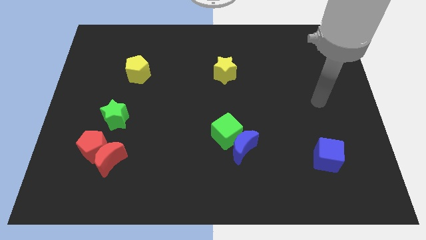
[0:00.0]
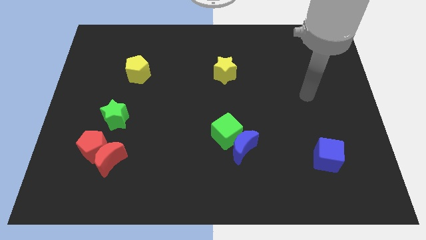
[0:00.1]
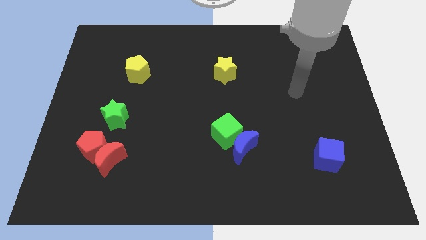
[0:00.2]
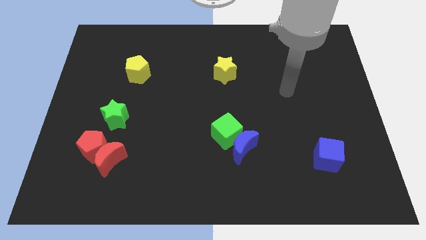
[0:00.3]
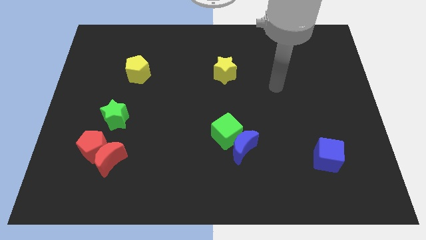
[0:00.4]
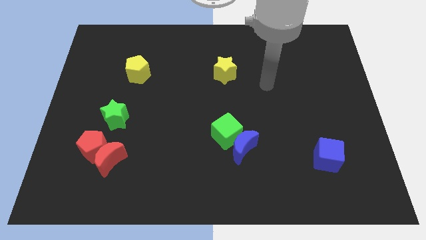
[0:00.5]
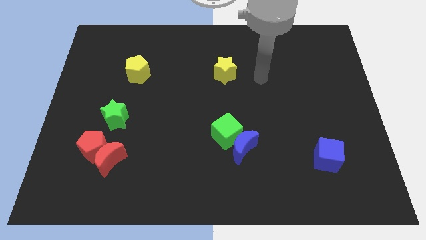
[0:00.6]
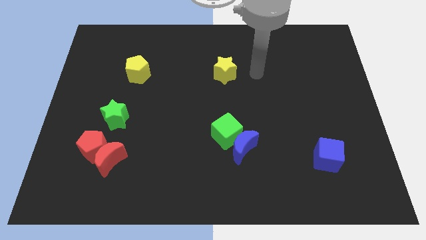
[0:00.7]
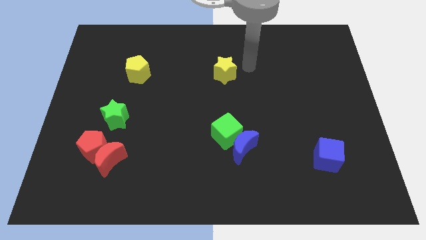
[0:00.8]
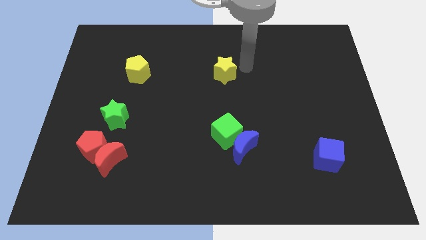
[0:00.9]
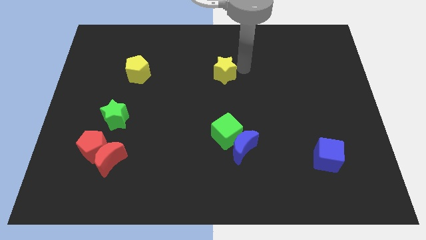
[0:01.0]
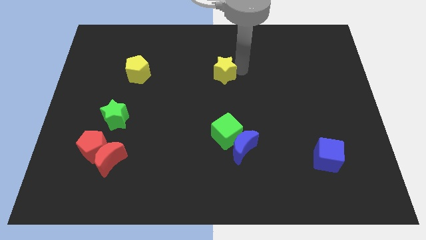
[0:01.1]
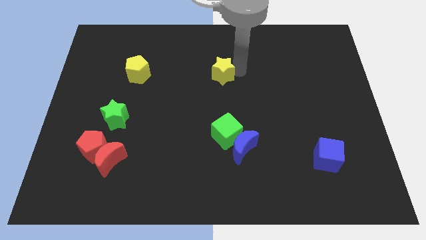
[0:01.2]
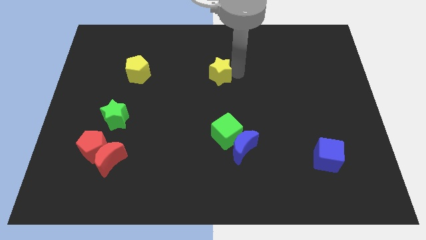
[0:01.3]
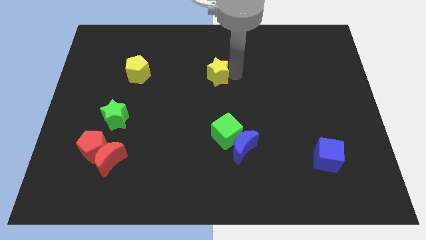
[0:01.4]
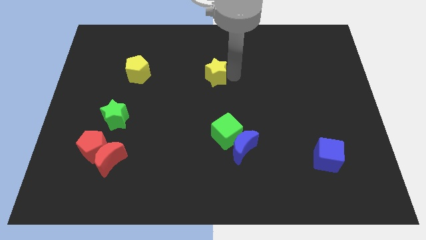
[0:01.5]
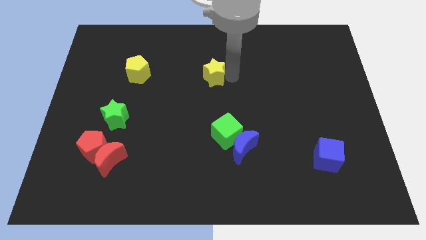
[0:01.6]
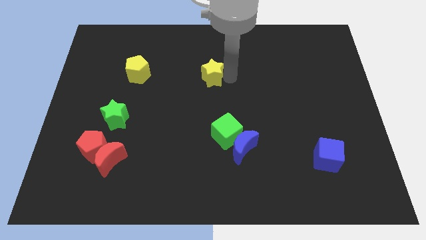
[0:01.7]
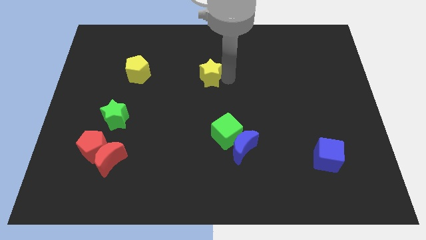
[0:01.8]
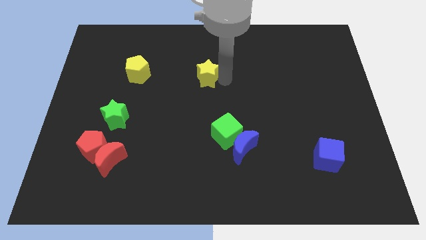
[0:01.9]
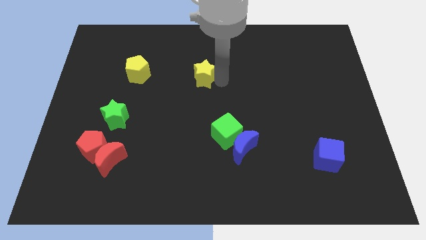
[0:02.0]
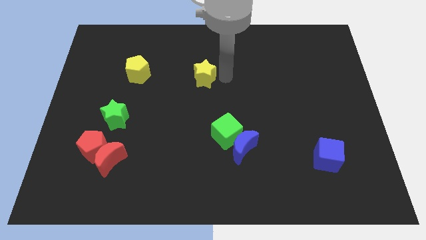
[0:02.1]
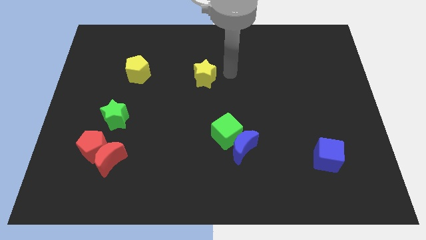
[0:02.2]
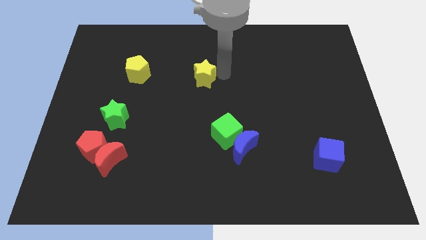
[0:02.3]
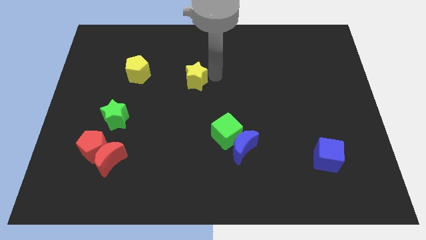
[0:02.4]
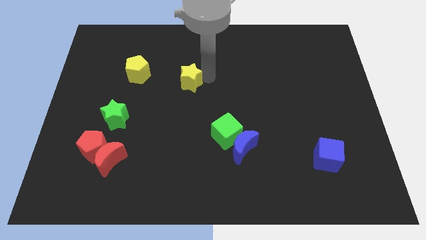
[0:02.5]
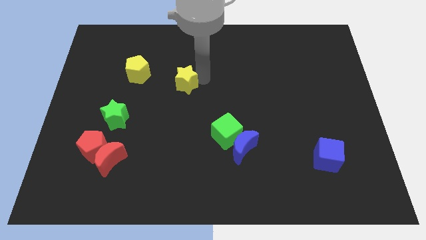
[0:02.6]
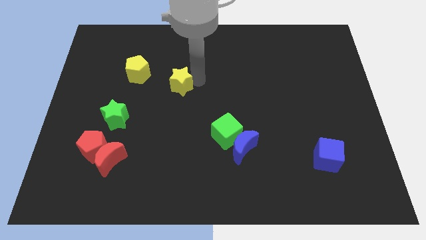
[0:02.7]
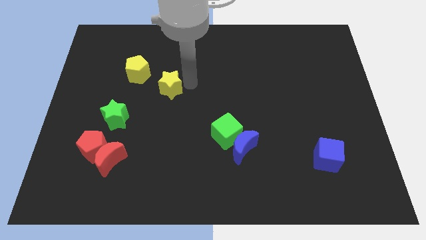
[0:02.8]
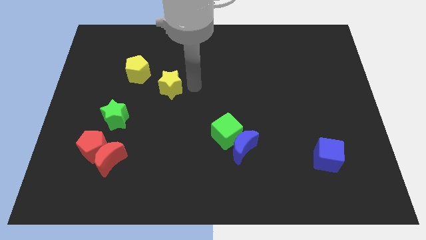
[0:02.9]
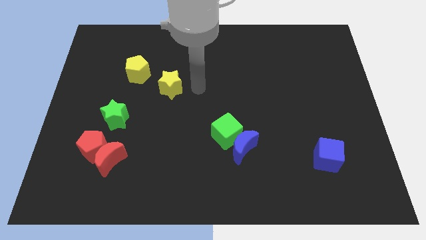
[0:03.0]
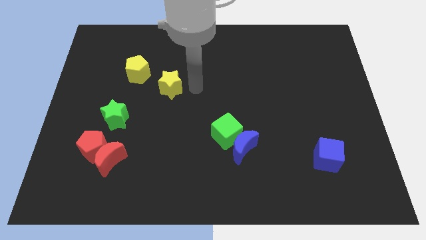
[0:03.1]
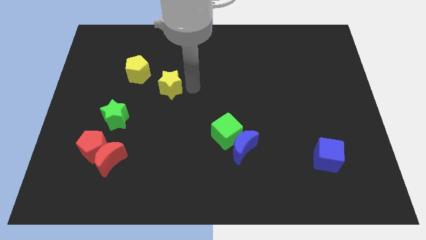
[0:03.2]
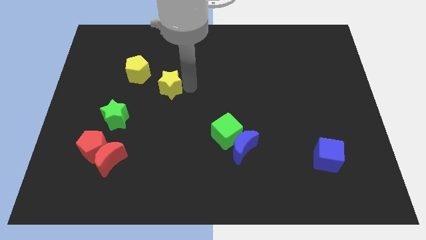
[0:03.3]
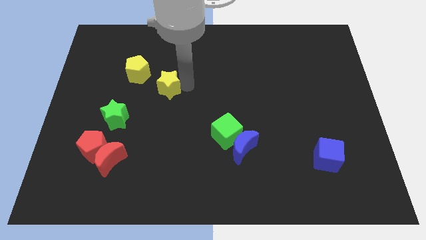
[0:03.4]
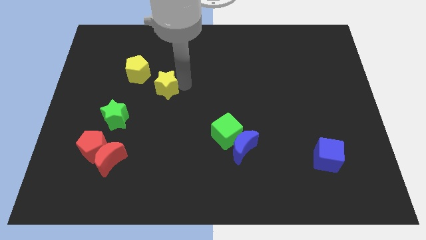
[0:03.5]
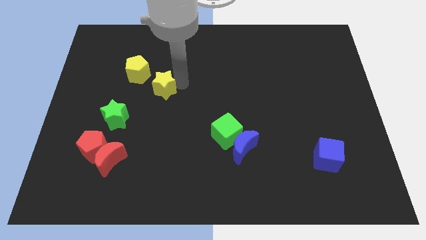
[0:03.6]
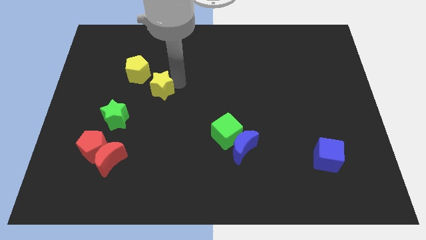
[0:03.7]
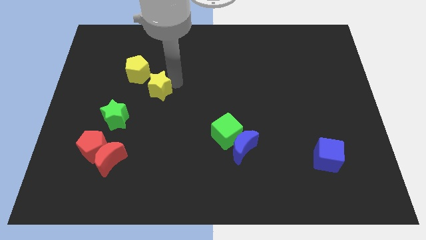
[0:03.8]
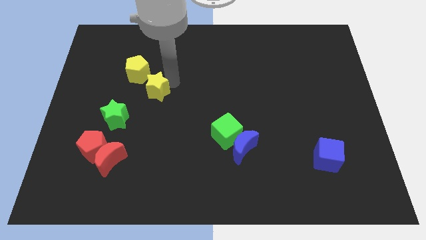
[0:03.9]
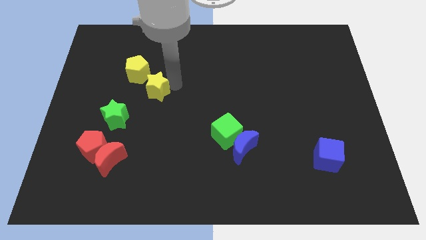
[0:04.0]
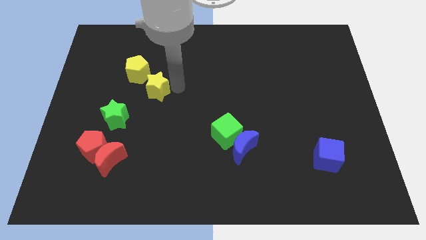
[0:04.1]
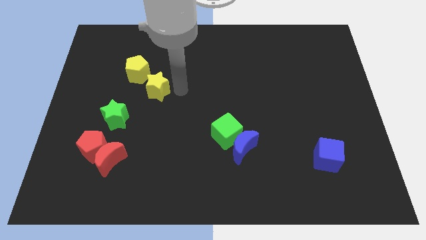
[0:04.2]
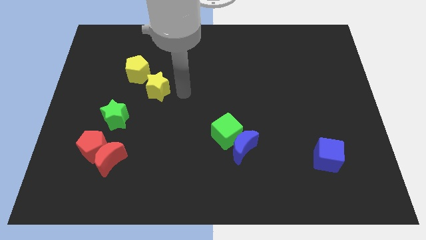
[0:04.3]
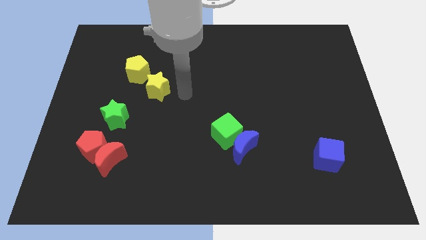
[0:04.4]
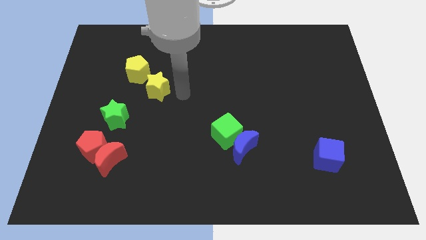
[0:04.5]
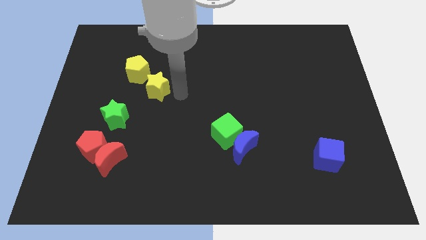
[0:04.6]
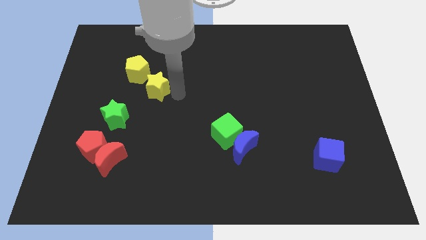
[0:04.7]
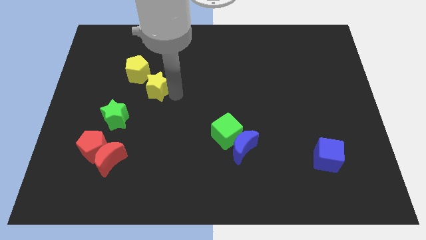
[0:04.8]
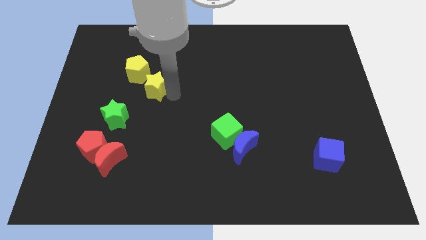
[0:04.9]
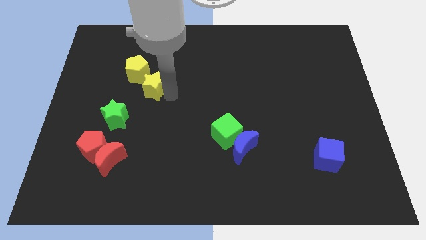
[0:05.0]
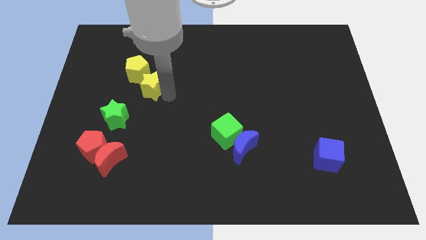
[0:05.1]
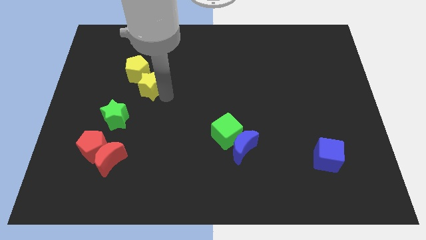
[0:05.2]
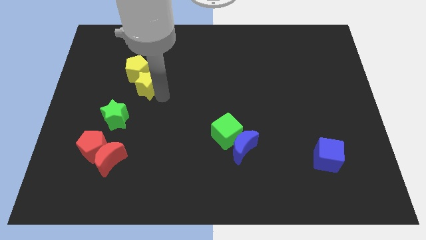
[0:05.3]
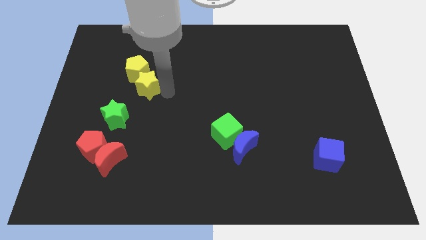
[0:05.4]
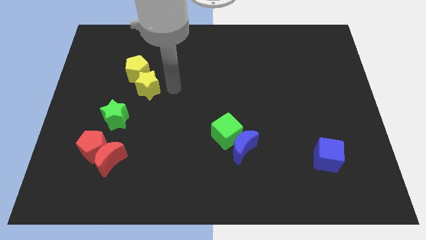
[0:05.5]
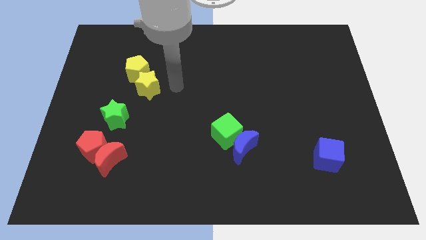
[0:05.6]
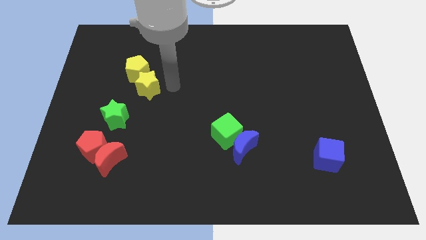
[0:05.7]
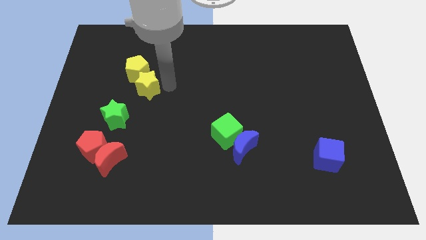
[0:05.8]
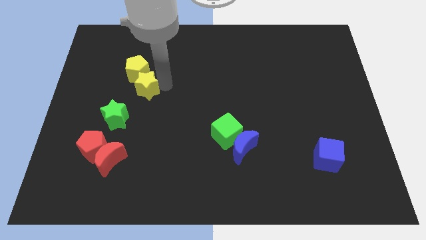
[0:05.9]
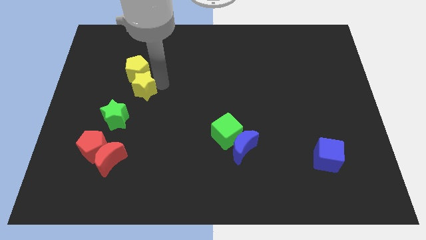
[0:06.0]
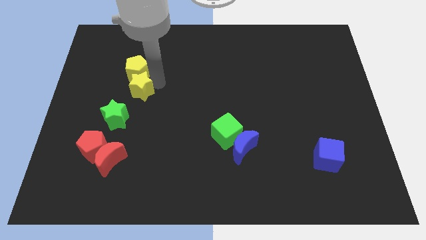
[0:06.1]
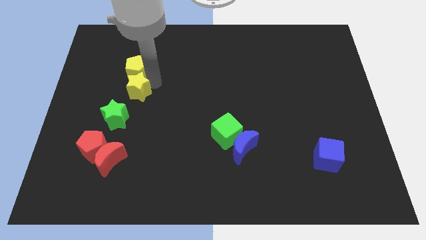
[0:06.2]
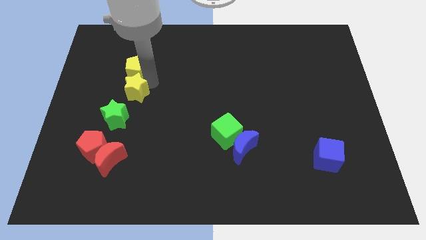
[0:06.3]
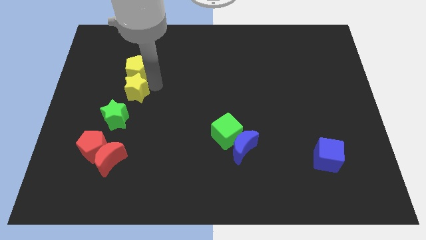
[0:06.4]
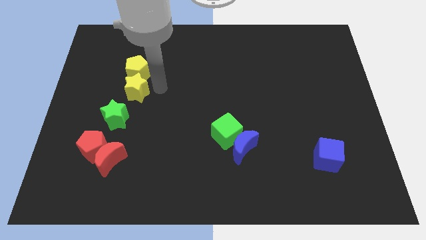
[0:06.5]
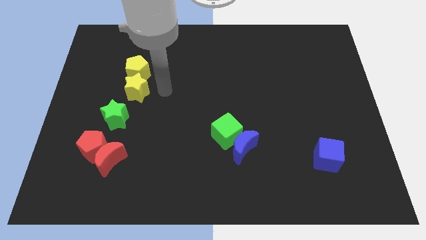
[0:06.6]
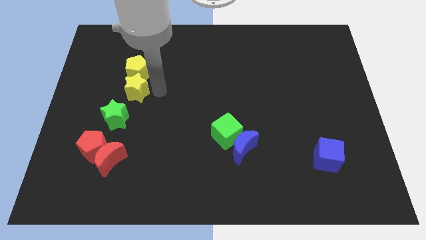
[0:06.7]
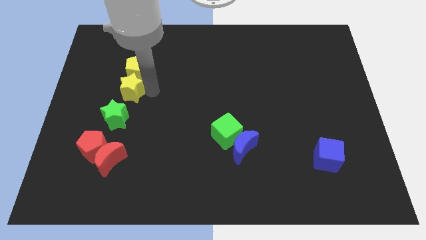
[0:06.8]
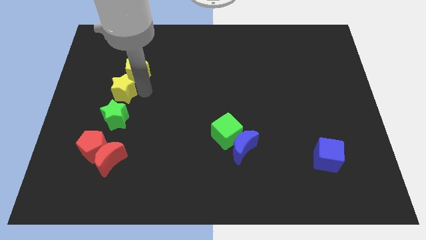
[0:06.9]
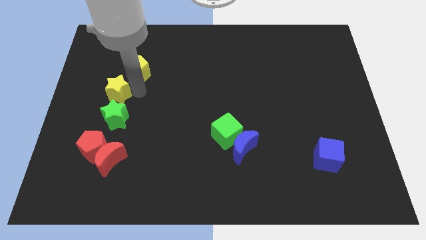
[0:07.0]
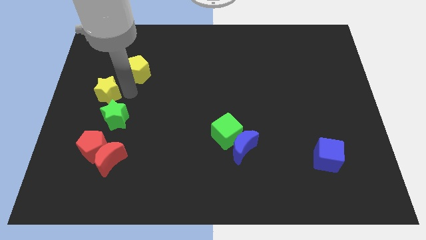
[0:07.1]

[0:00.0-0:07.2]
put the yellow star to the left side of the board
